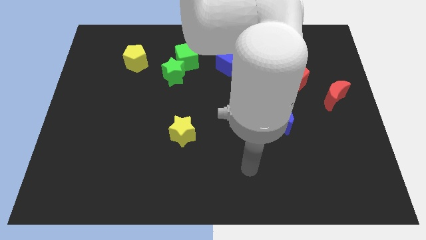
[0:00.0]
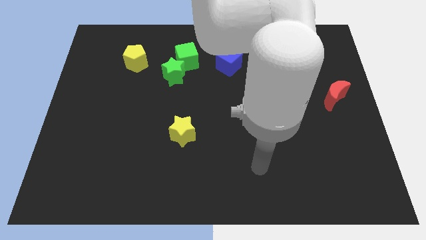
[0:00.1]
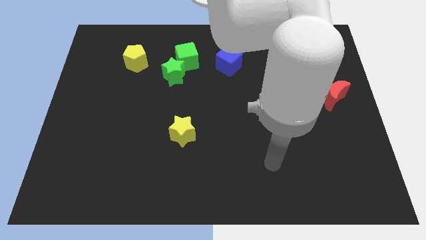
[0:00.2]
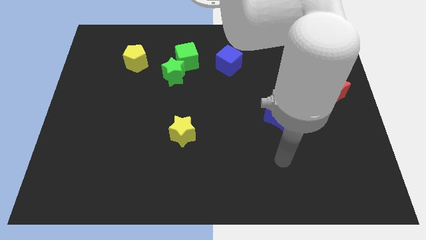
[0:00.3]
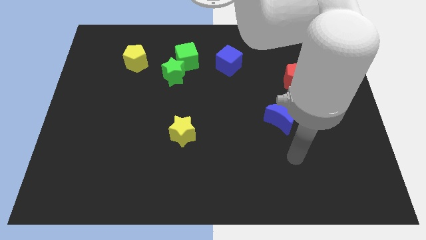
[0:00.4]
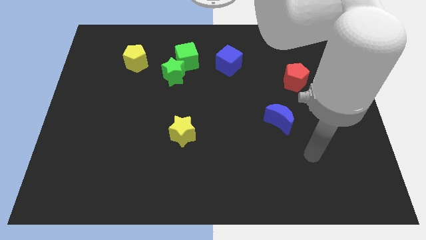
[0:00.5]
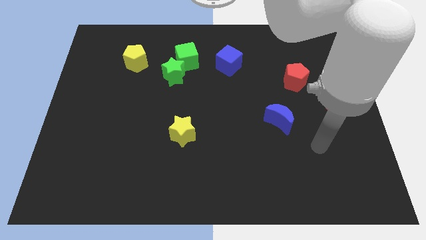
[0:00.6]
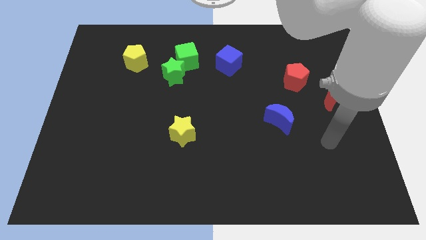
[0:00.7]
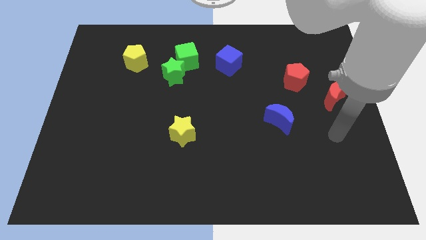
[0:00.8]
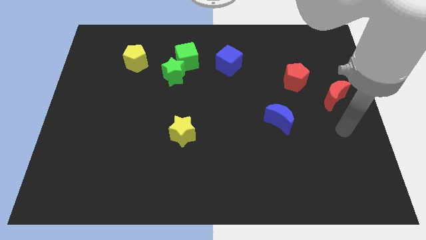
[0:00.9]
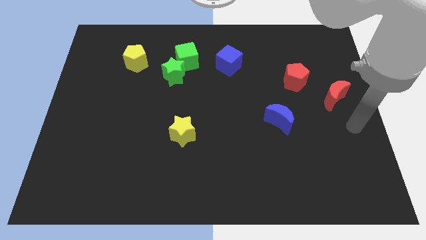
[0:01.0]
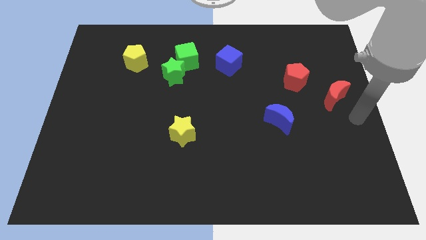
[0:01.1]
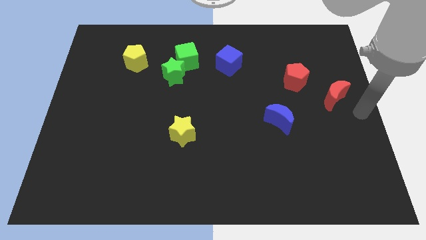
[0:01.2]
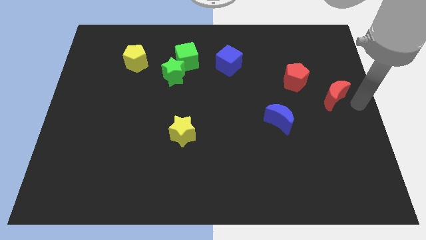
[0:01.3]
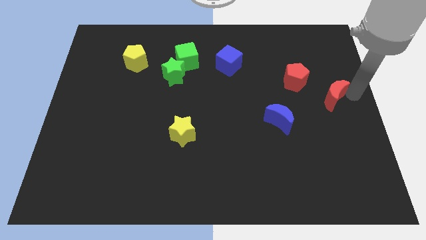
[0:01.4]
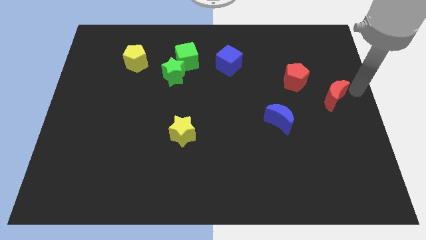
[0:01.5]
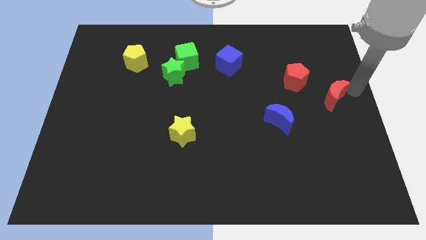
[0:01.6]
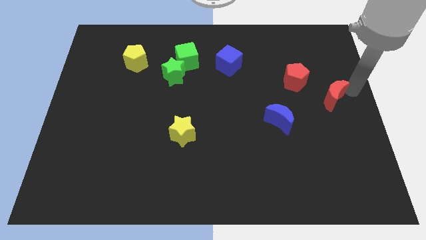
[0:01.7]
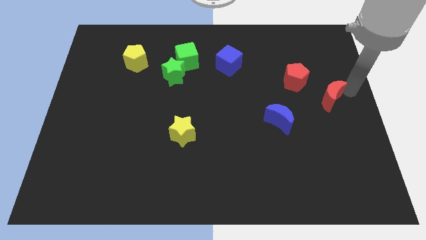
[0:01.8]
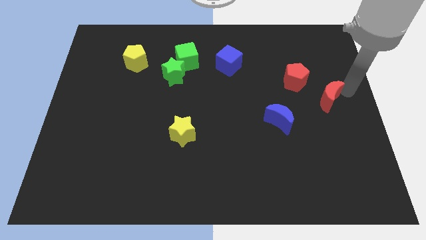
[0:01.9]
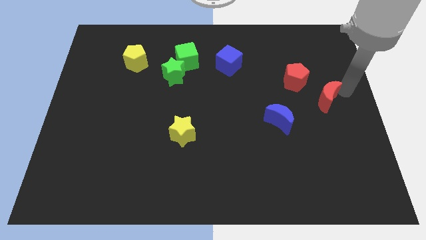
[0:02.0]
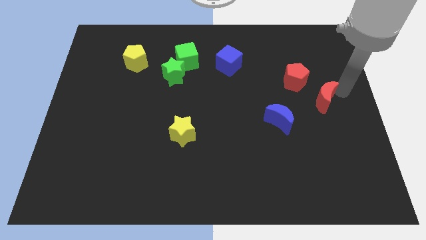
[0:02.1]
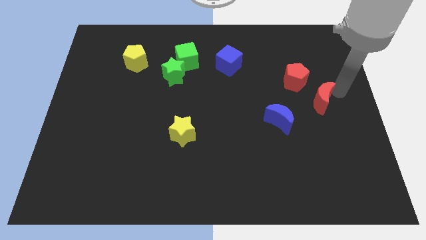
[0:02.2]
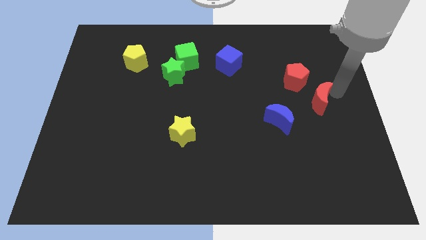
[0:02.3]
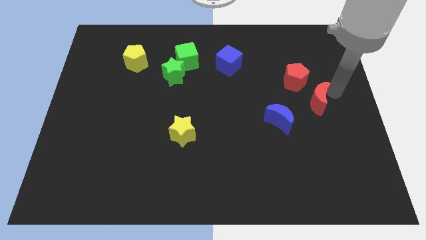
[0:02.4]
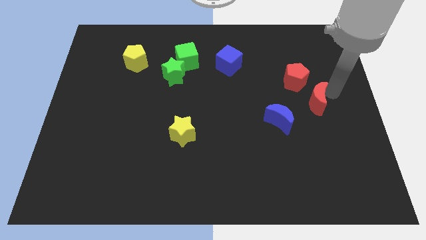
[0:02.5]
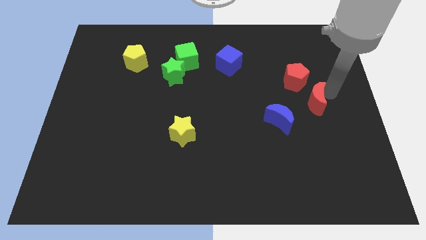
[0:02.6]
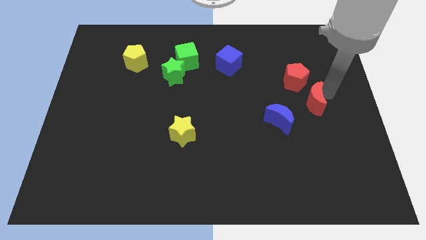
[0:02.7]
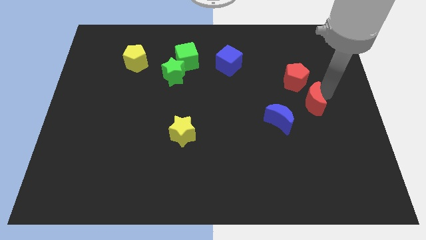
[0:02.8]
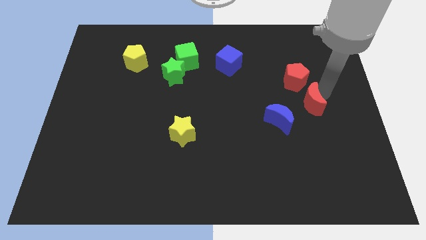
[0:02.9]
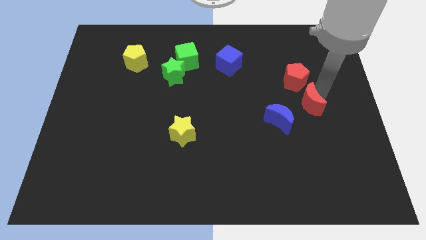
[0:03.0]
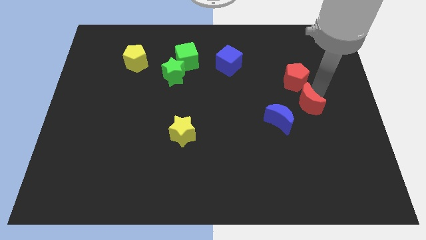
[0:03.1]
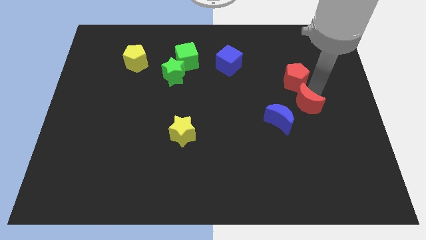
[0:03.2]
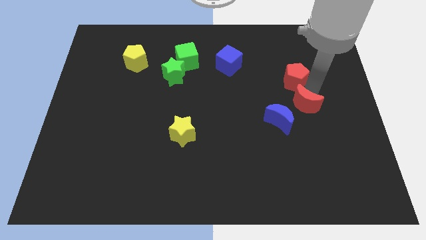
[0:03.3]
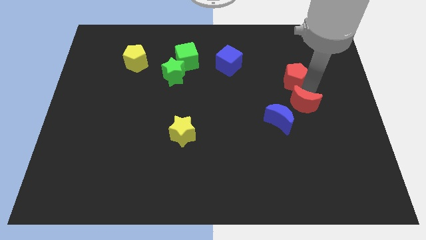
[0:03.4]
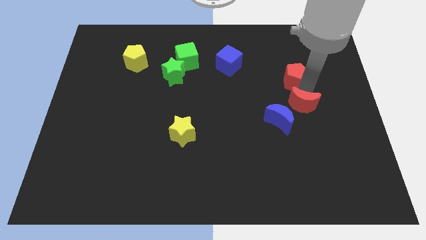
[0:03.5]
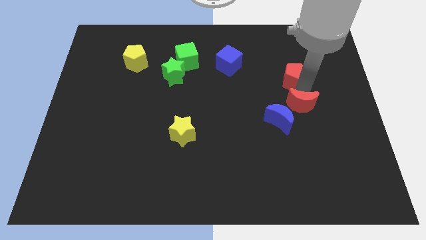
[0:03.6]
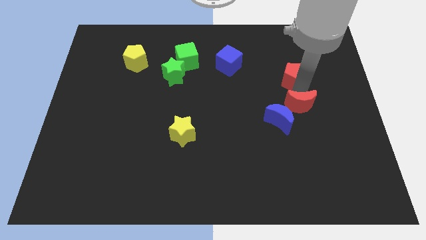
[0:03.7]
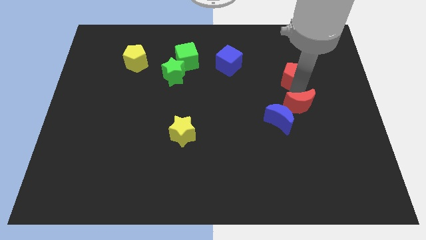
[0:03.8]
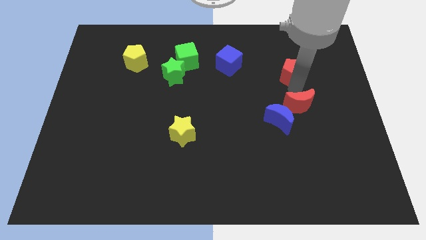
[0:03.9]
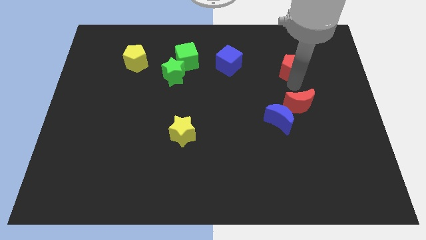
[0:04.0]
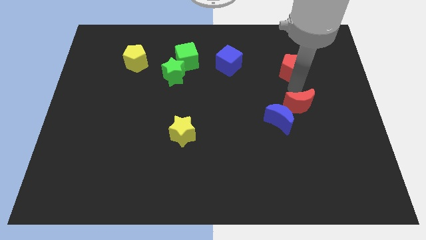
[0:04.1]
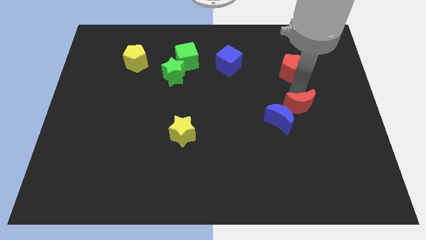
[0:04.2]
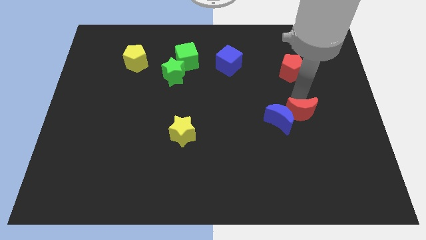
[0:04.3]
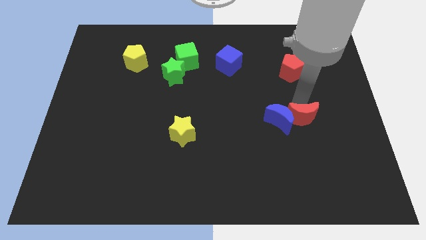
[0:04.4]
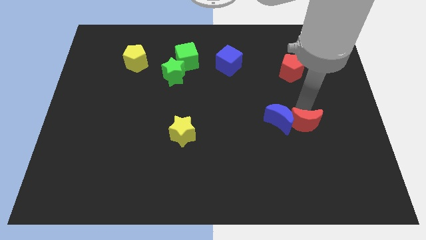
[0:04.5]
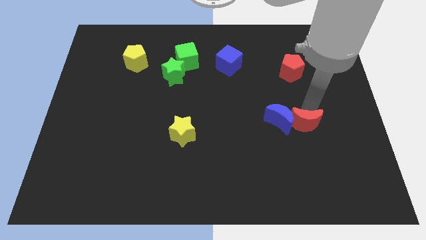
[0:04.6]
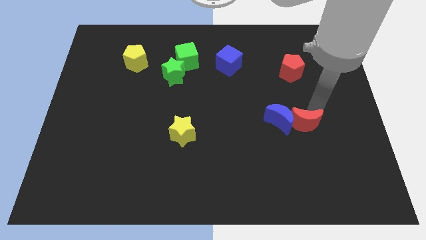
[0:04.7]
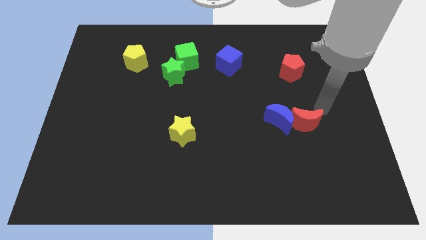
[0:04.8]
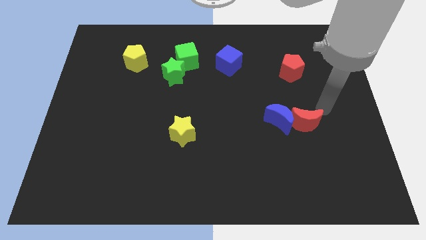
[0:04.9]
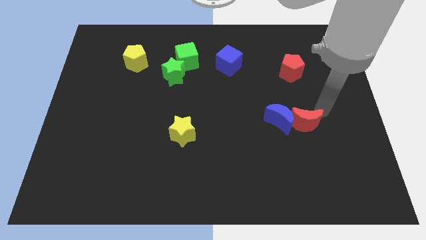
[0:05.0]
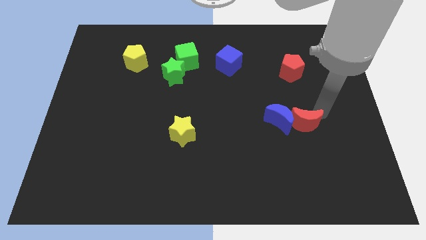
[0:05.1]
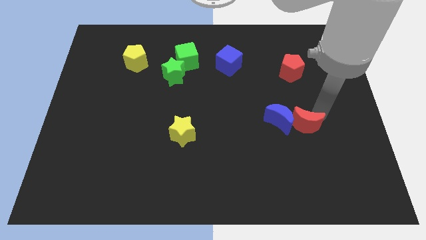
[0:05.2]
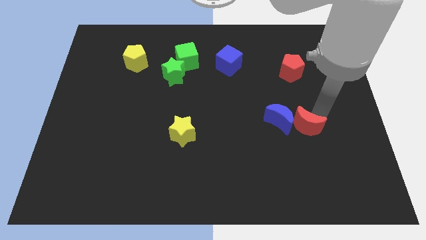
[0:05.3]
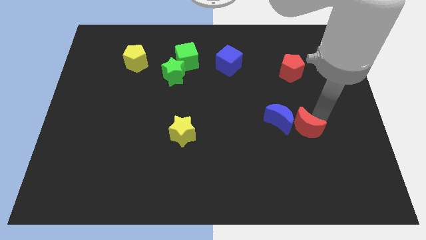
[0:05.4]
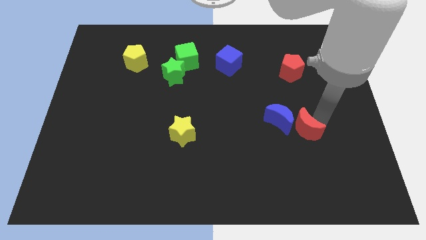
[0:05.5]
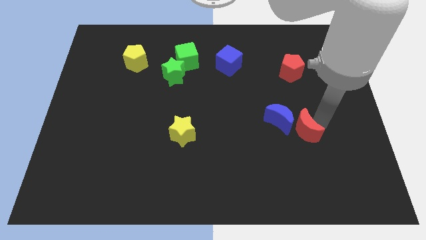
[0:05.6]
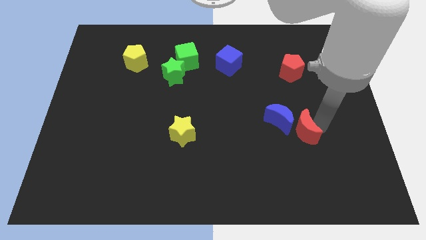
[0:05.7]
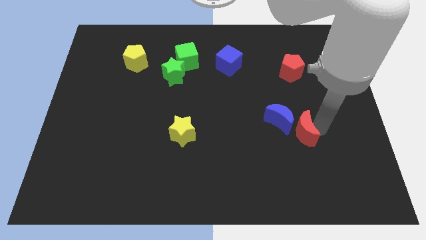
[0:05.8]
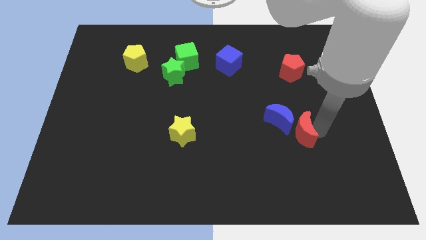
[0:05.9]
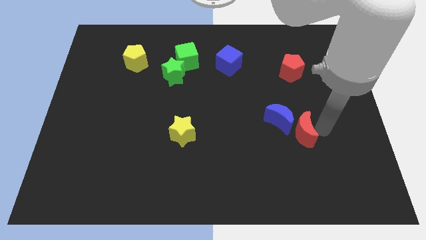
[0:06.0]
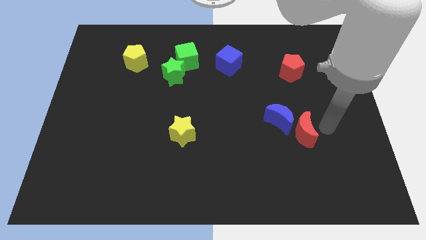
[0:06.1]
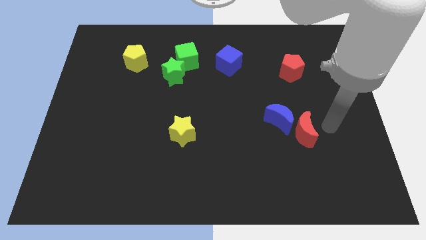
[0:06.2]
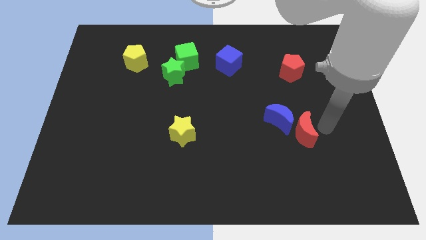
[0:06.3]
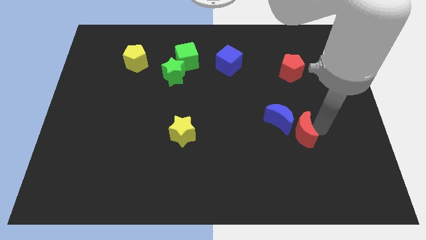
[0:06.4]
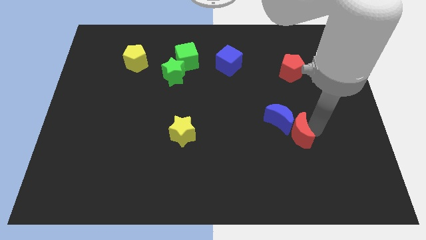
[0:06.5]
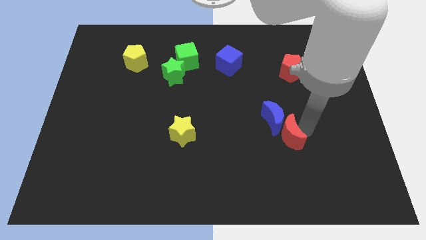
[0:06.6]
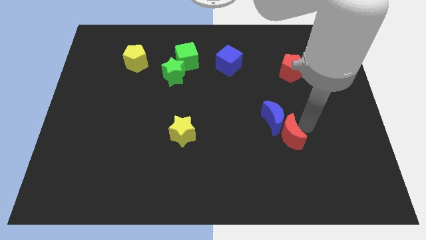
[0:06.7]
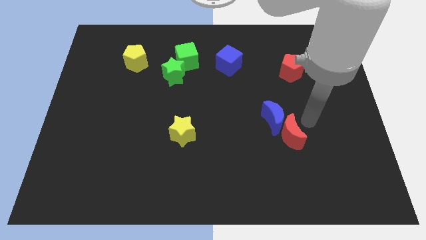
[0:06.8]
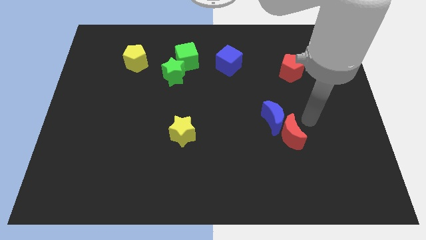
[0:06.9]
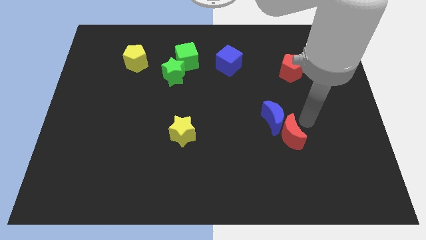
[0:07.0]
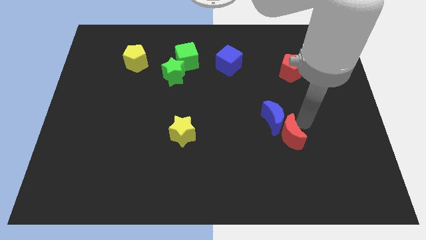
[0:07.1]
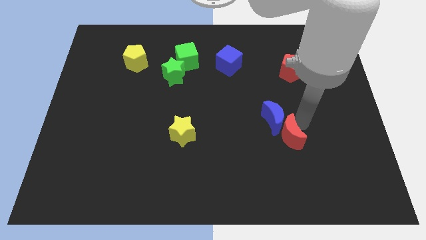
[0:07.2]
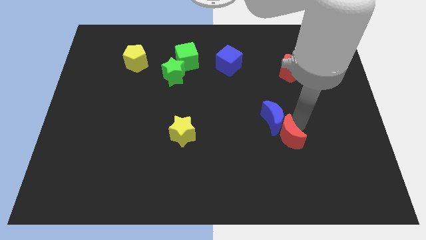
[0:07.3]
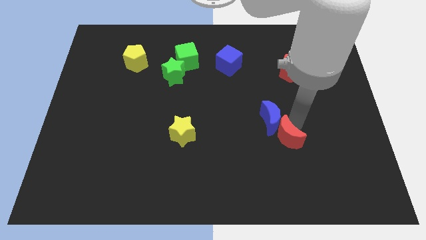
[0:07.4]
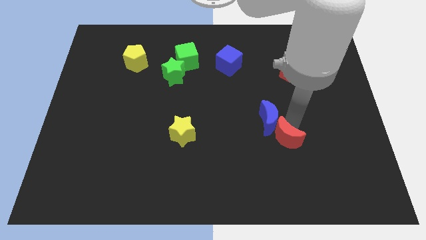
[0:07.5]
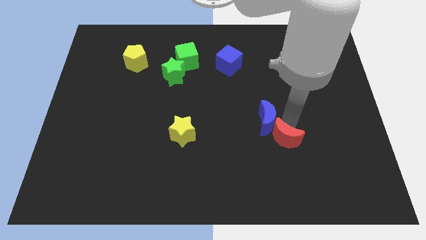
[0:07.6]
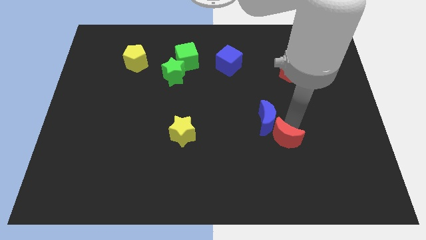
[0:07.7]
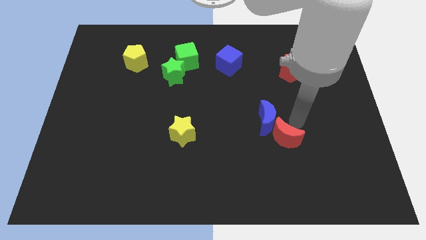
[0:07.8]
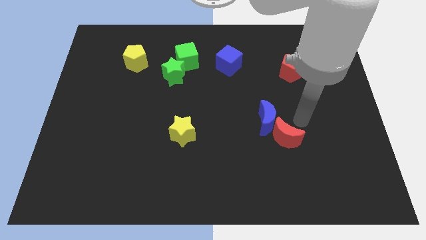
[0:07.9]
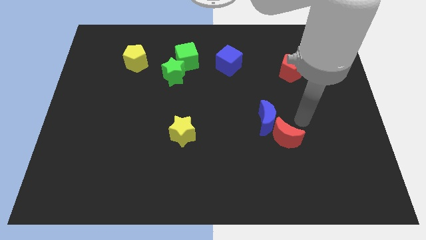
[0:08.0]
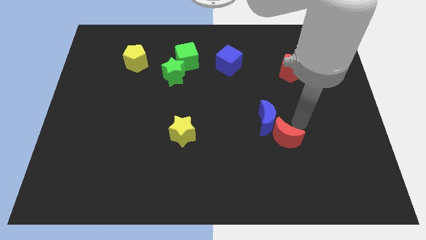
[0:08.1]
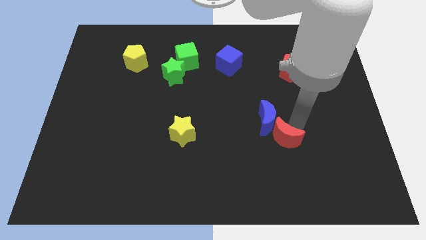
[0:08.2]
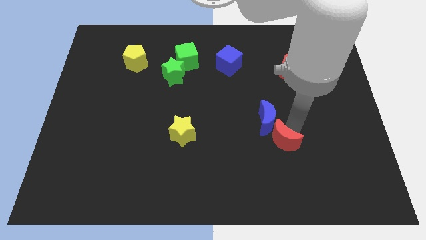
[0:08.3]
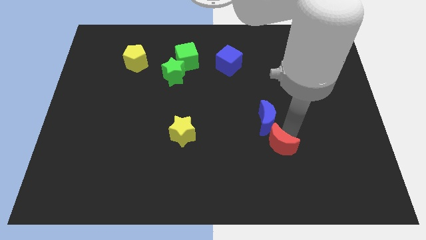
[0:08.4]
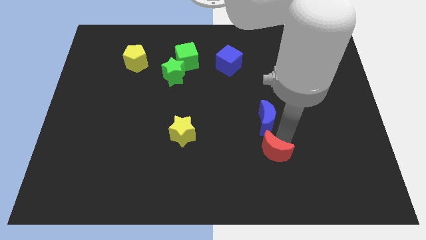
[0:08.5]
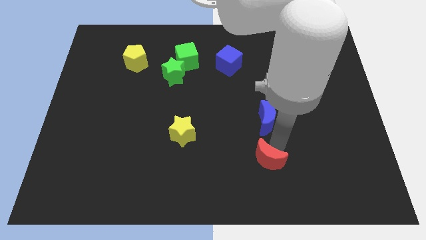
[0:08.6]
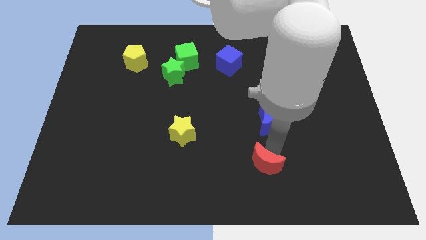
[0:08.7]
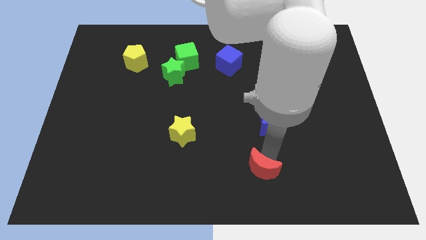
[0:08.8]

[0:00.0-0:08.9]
put the red moon to the bottom side
